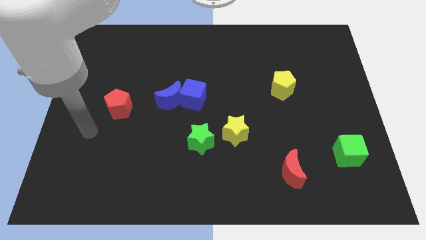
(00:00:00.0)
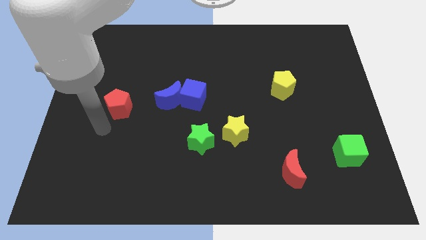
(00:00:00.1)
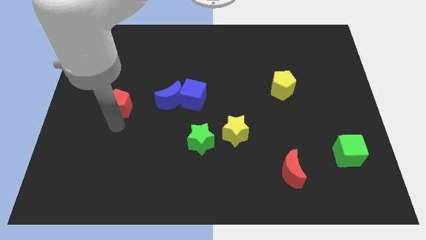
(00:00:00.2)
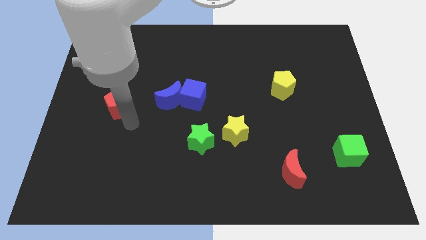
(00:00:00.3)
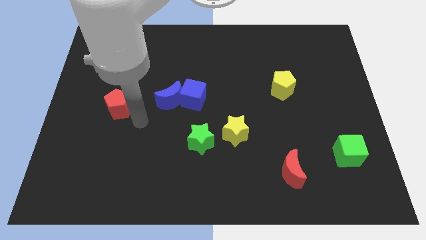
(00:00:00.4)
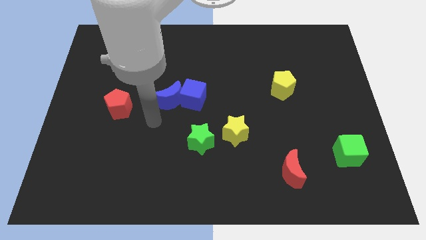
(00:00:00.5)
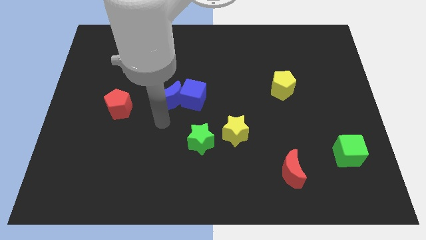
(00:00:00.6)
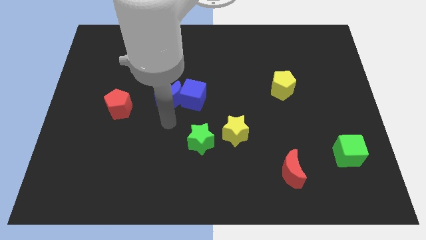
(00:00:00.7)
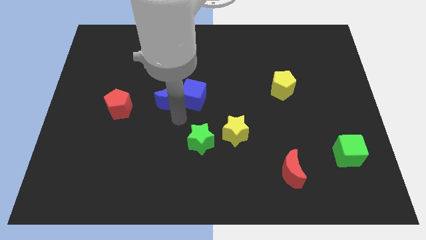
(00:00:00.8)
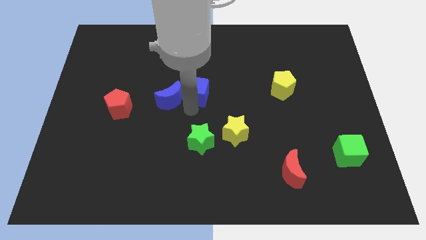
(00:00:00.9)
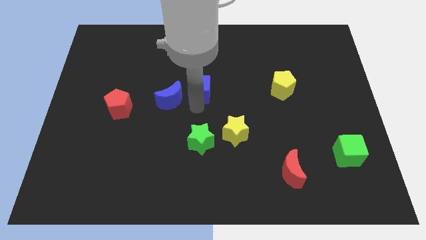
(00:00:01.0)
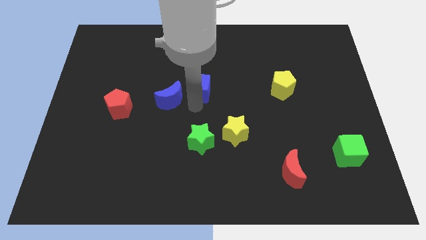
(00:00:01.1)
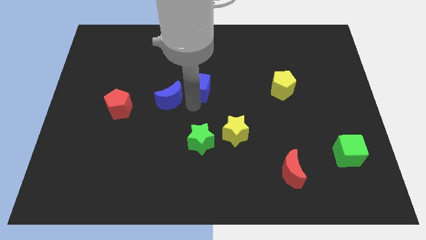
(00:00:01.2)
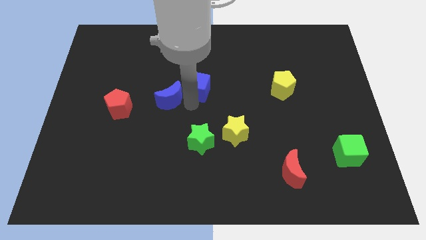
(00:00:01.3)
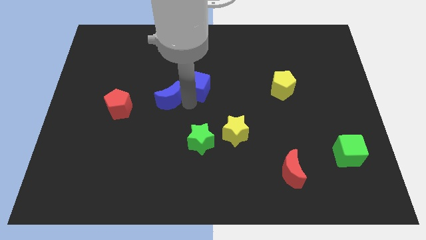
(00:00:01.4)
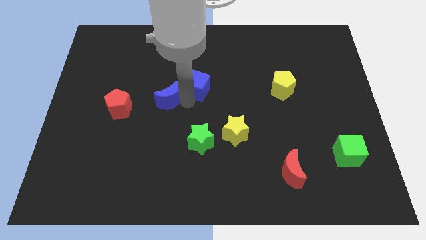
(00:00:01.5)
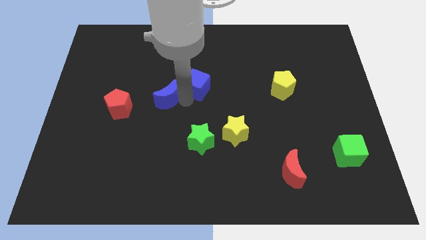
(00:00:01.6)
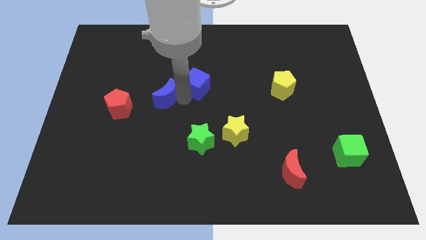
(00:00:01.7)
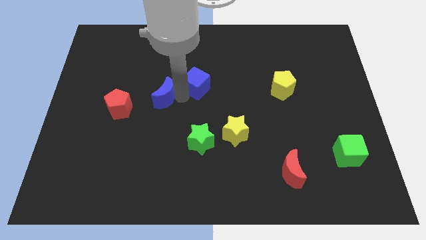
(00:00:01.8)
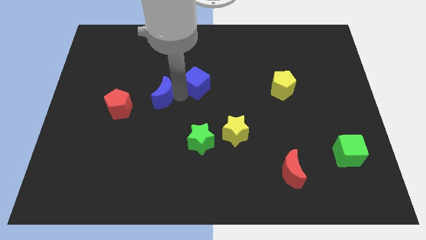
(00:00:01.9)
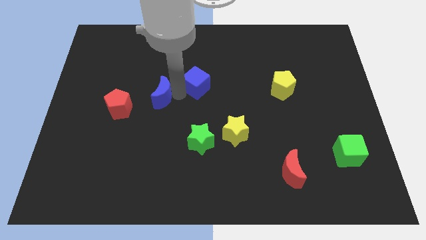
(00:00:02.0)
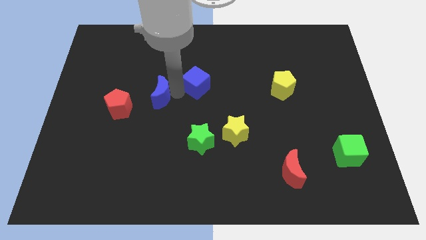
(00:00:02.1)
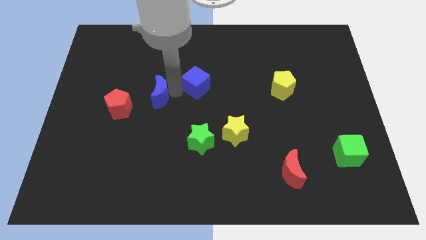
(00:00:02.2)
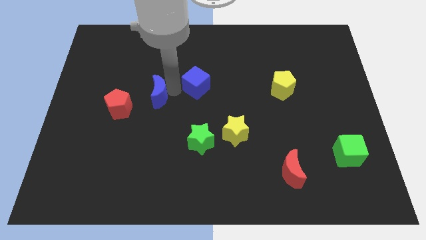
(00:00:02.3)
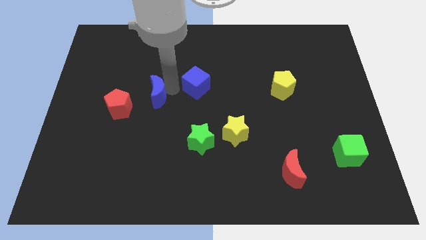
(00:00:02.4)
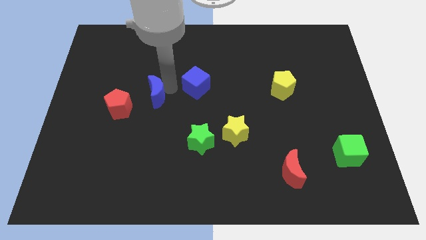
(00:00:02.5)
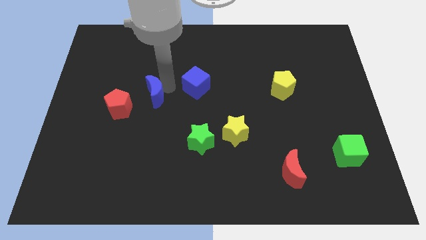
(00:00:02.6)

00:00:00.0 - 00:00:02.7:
pull the blue moon apart from the blue cube

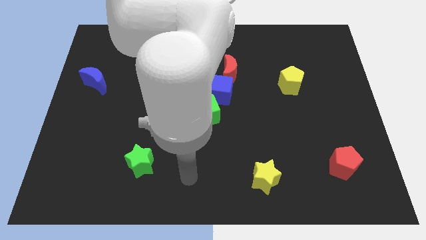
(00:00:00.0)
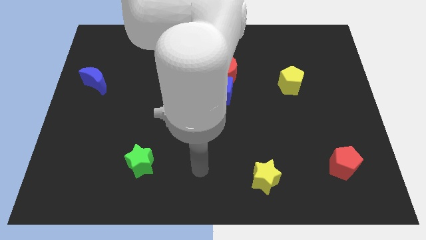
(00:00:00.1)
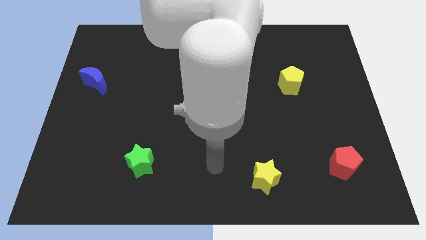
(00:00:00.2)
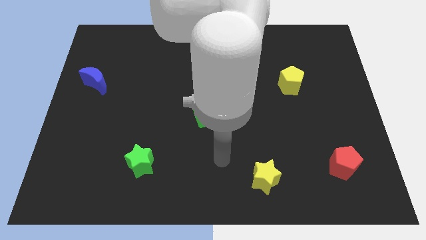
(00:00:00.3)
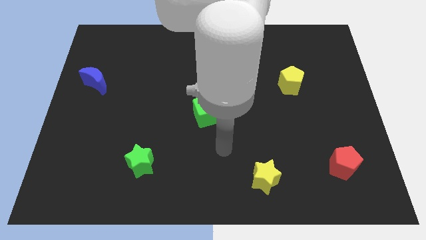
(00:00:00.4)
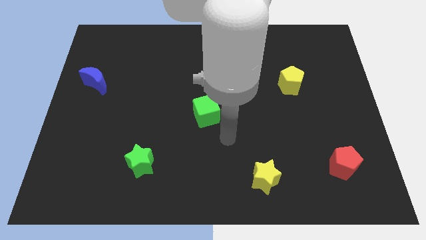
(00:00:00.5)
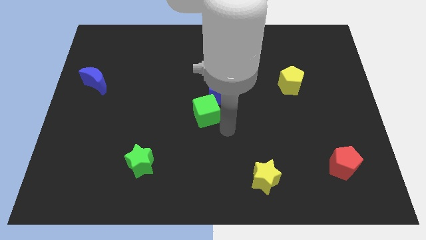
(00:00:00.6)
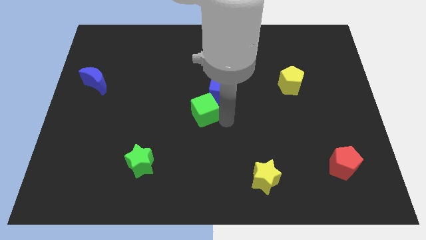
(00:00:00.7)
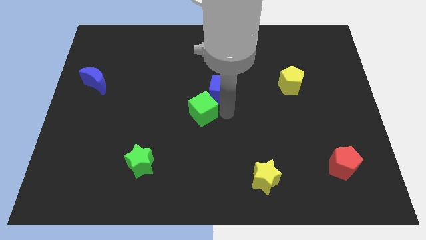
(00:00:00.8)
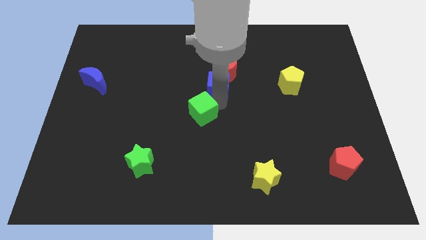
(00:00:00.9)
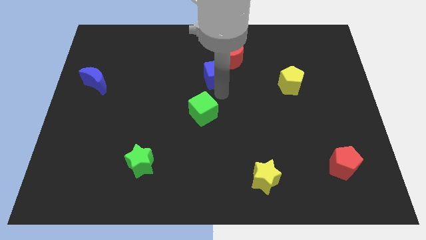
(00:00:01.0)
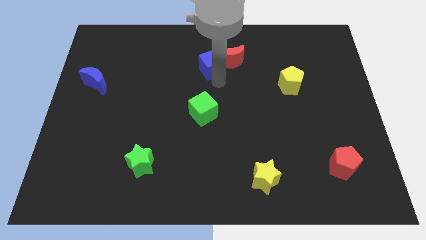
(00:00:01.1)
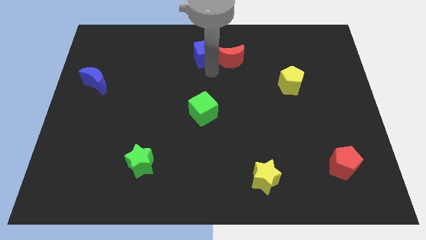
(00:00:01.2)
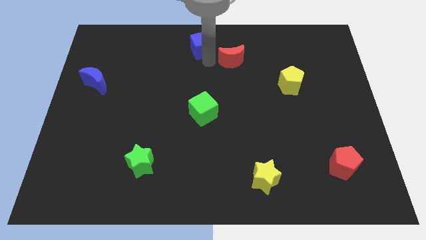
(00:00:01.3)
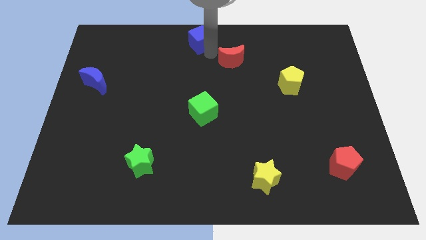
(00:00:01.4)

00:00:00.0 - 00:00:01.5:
move the red moon away from the blue cube

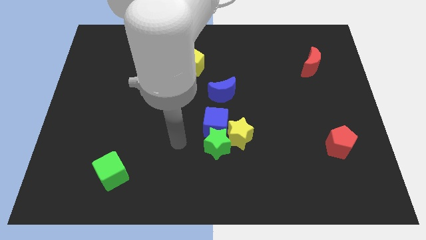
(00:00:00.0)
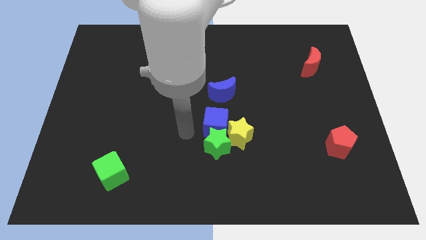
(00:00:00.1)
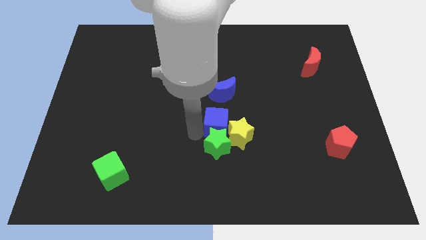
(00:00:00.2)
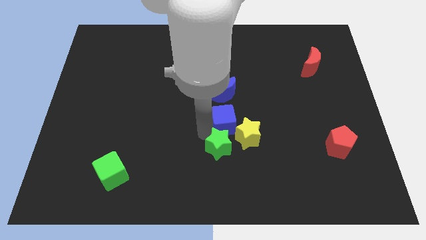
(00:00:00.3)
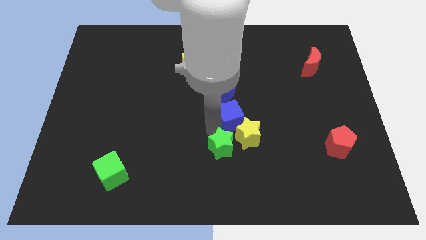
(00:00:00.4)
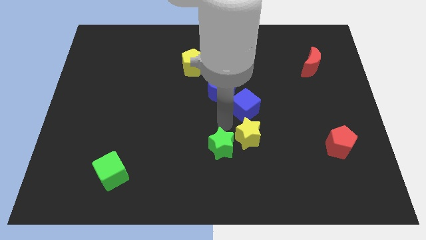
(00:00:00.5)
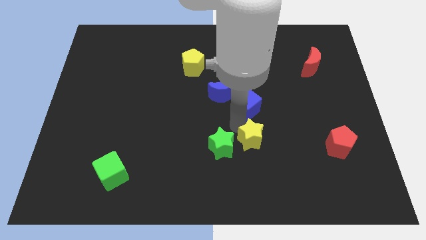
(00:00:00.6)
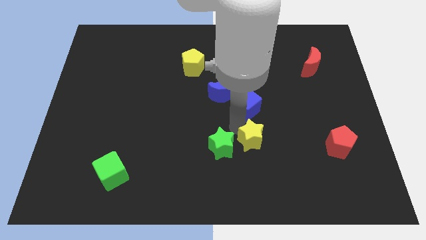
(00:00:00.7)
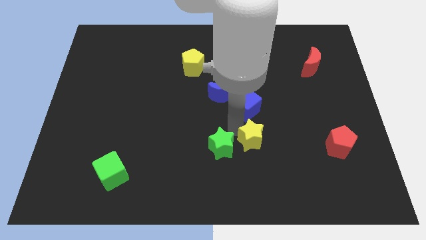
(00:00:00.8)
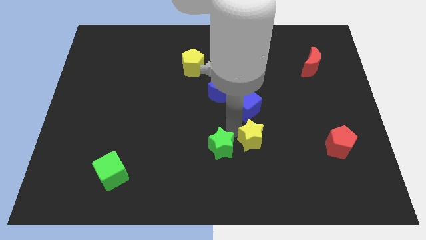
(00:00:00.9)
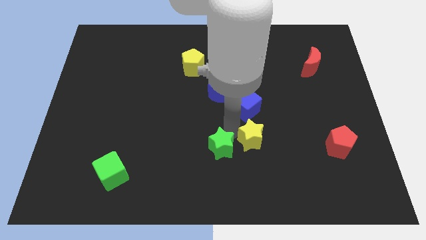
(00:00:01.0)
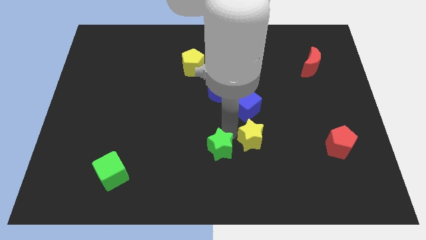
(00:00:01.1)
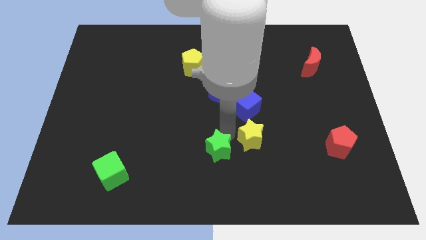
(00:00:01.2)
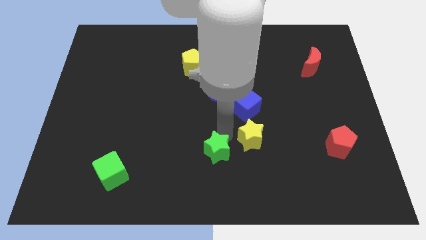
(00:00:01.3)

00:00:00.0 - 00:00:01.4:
pull the green star apart from the yellow star and blue cube

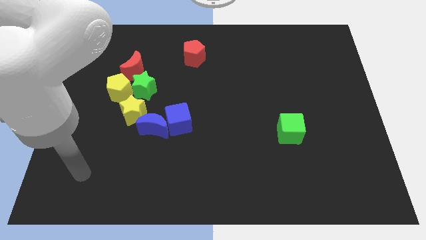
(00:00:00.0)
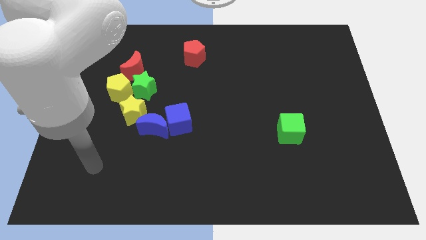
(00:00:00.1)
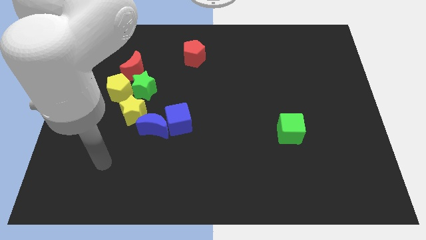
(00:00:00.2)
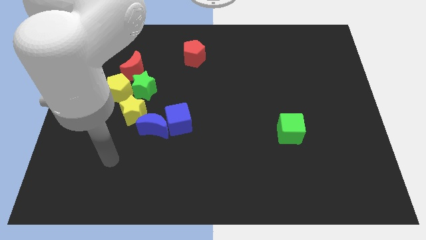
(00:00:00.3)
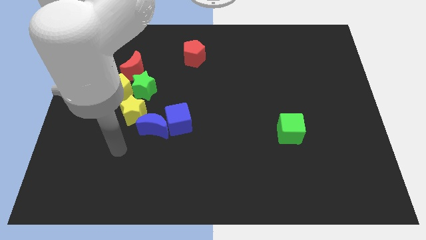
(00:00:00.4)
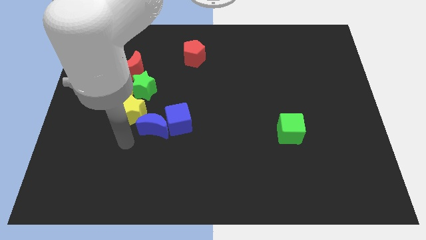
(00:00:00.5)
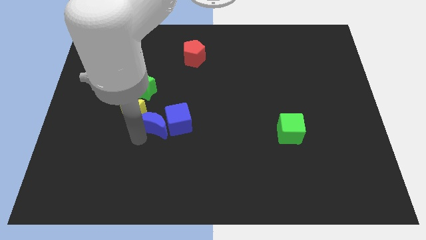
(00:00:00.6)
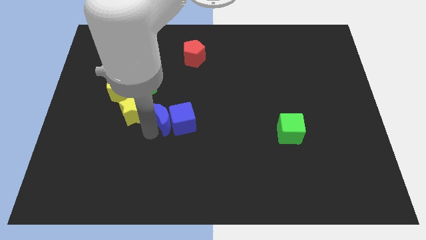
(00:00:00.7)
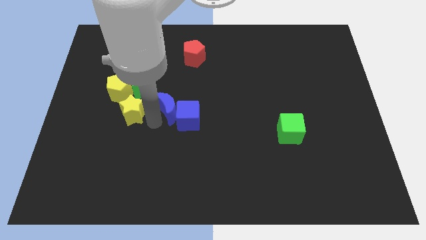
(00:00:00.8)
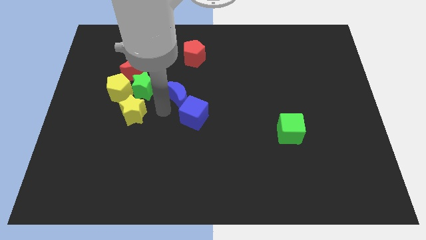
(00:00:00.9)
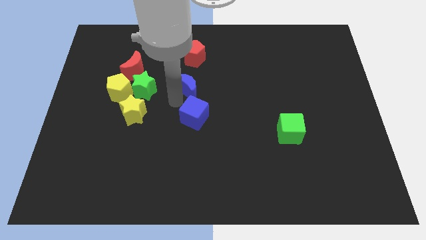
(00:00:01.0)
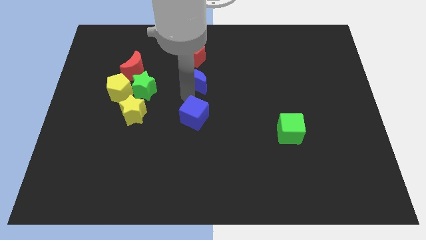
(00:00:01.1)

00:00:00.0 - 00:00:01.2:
pull the blue cube apart from the blue moon

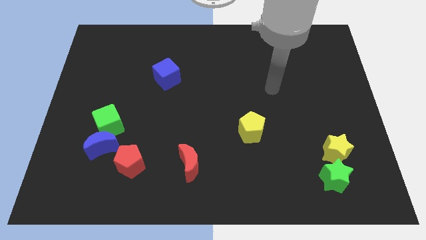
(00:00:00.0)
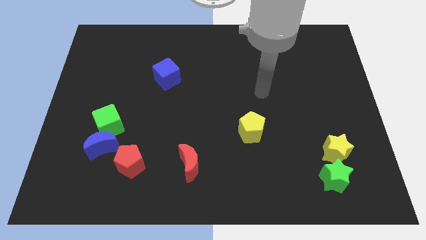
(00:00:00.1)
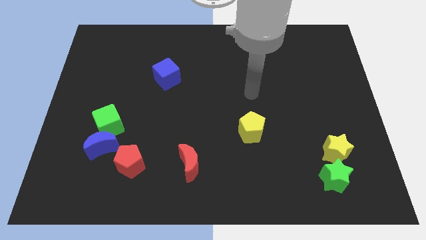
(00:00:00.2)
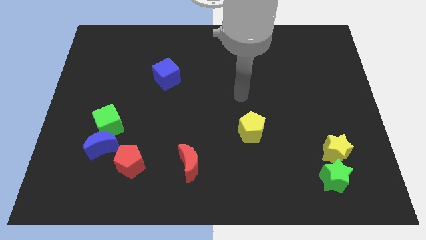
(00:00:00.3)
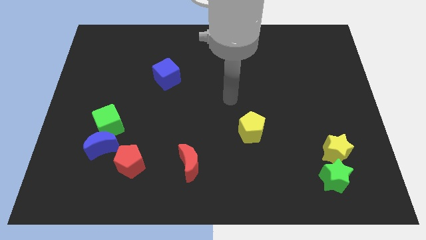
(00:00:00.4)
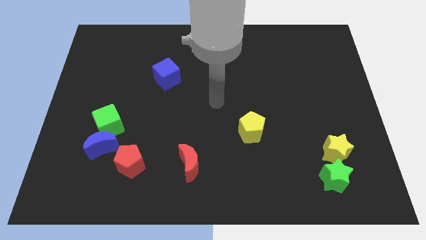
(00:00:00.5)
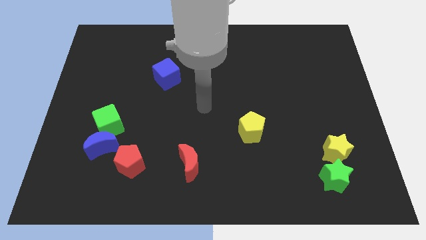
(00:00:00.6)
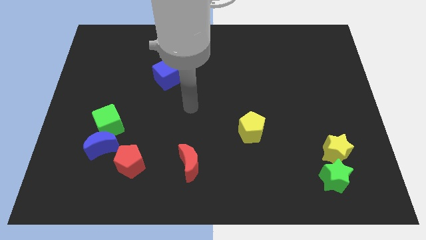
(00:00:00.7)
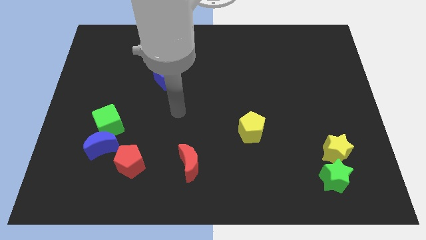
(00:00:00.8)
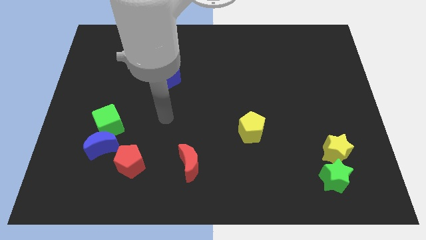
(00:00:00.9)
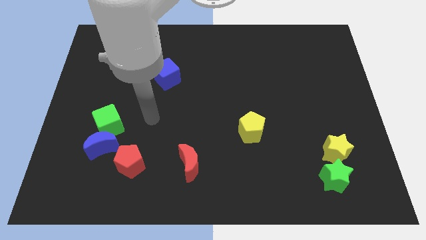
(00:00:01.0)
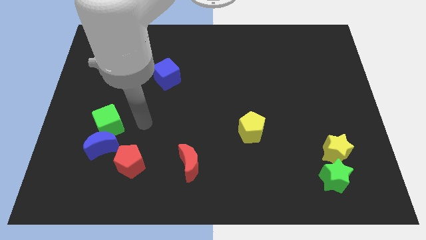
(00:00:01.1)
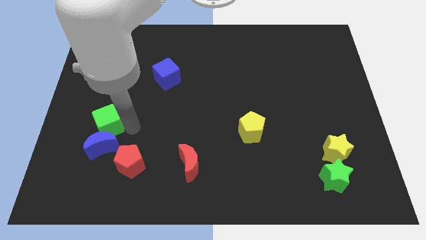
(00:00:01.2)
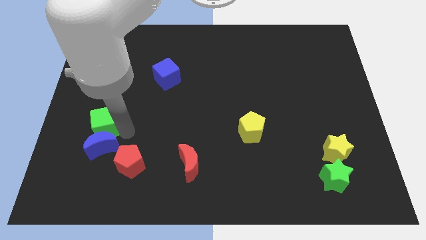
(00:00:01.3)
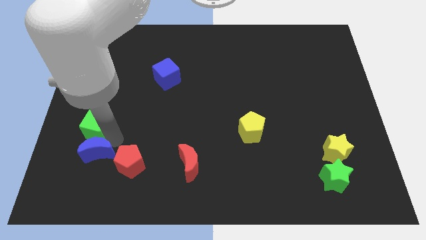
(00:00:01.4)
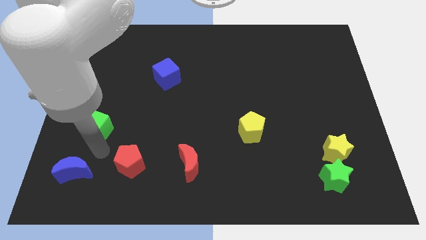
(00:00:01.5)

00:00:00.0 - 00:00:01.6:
move the green cube away from the blue moon

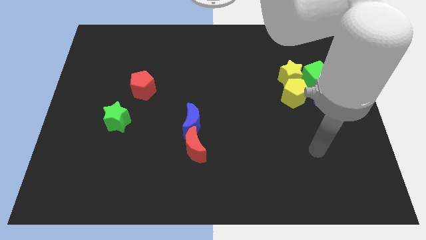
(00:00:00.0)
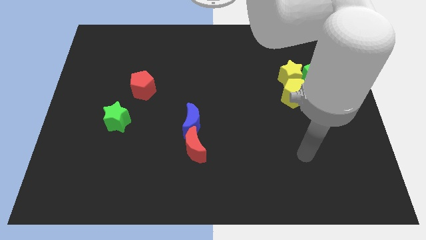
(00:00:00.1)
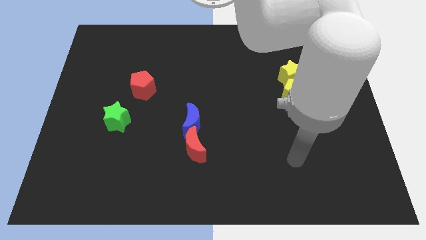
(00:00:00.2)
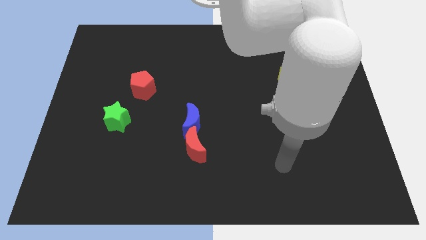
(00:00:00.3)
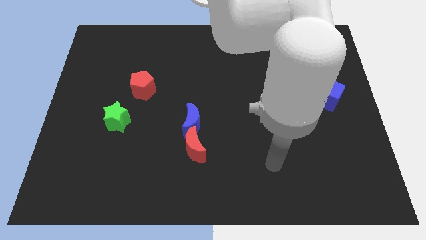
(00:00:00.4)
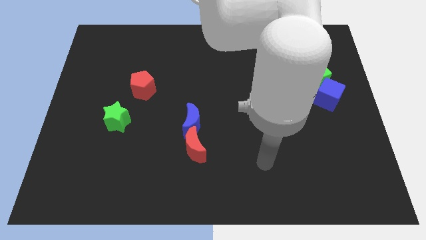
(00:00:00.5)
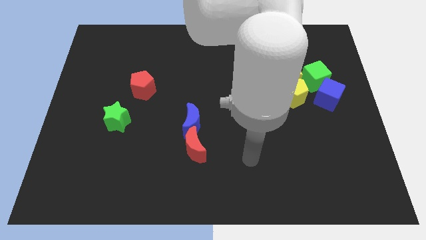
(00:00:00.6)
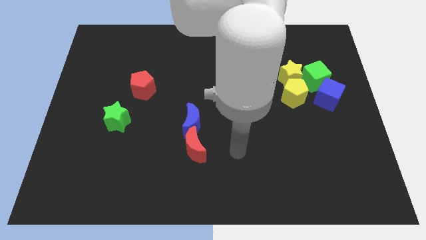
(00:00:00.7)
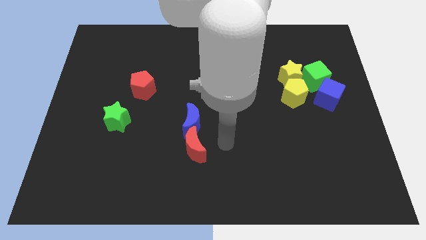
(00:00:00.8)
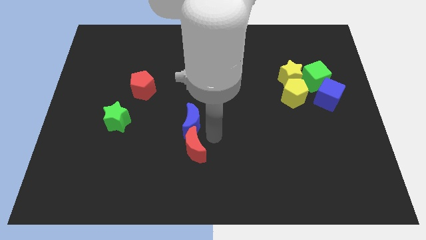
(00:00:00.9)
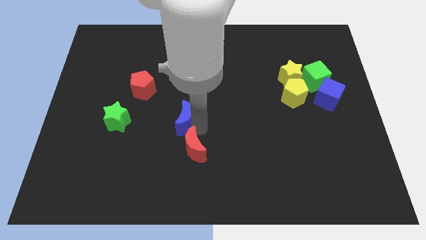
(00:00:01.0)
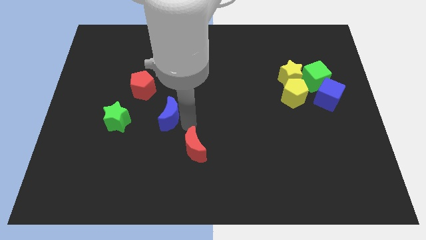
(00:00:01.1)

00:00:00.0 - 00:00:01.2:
separate the red moon from the blue moon
